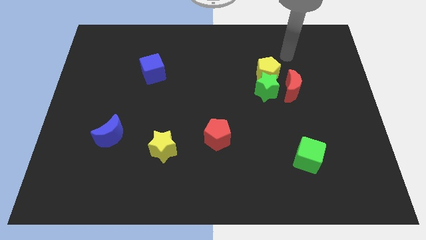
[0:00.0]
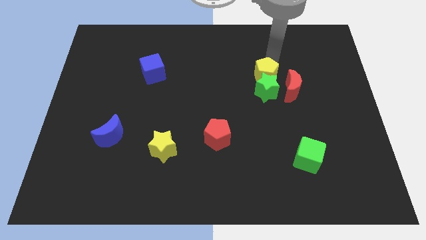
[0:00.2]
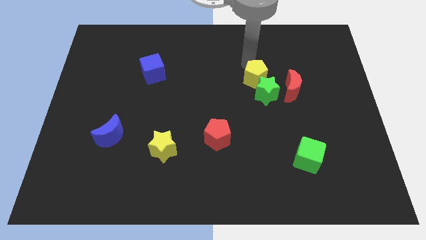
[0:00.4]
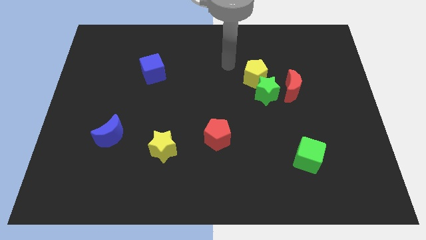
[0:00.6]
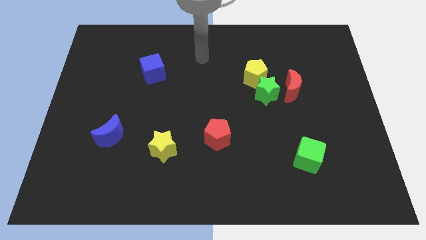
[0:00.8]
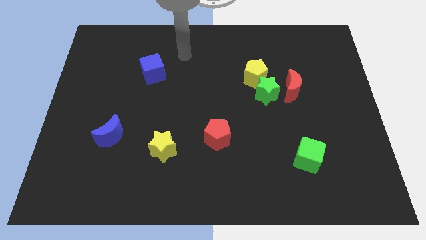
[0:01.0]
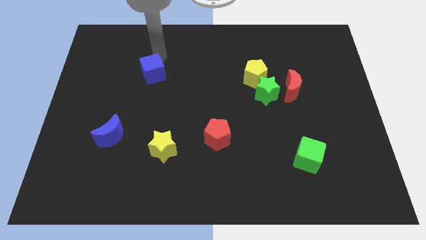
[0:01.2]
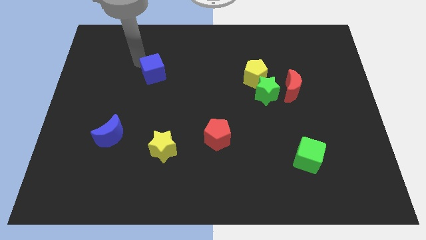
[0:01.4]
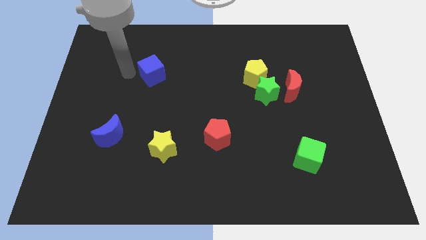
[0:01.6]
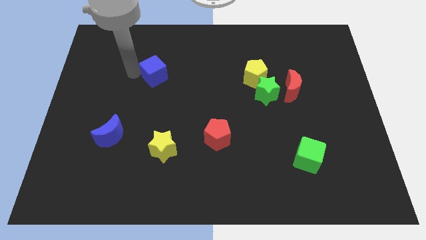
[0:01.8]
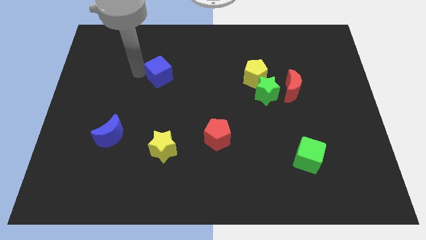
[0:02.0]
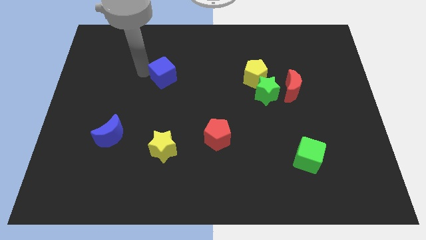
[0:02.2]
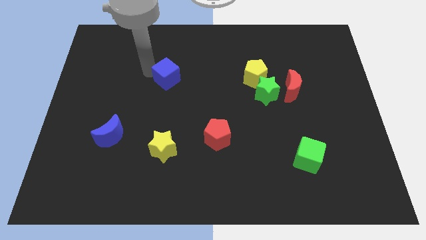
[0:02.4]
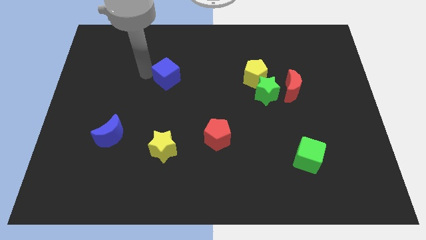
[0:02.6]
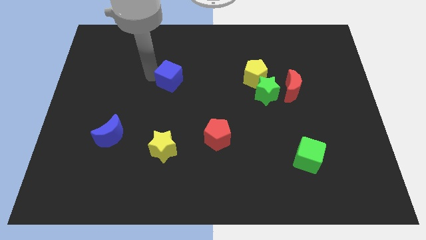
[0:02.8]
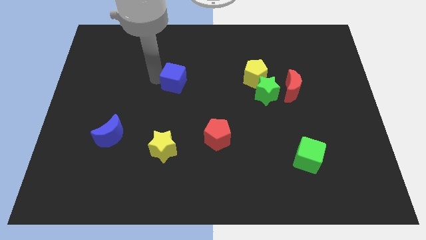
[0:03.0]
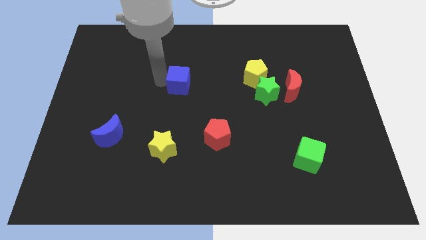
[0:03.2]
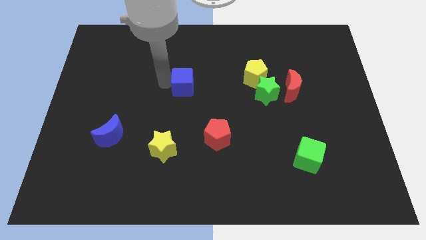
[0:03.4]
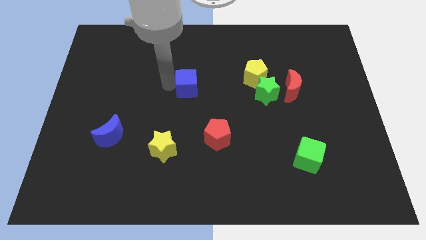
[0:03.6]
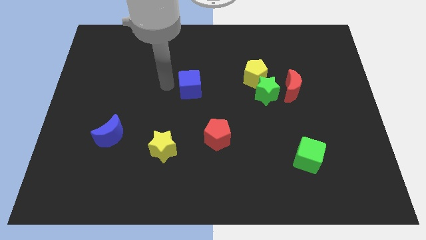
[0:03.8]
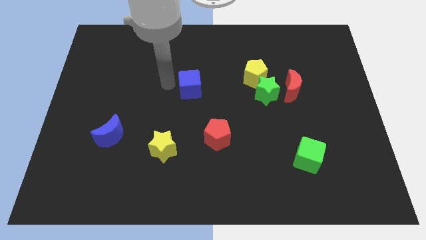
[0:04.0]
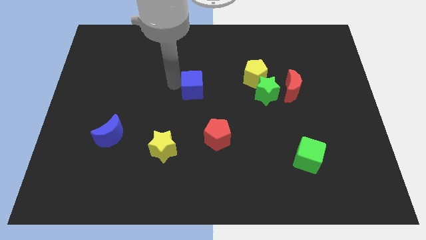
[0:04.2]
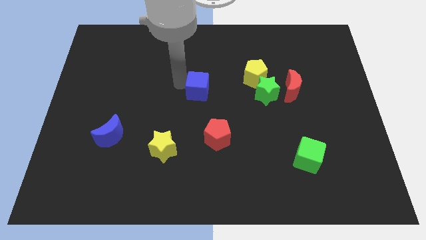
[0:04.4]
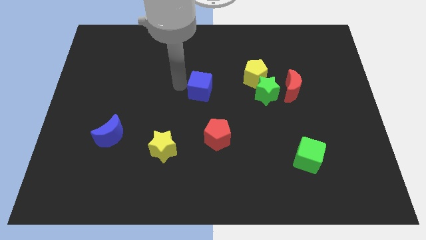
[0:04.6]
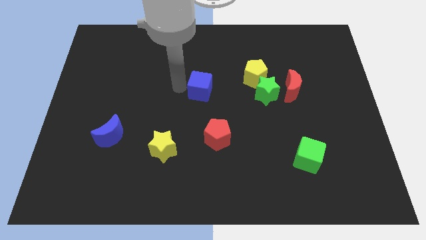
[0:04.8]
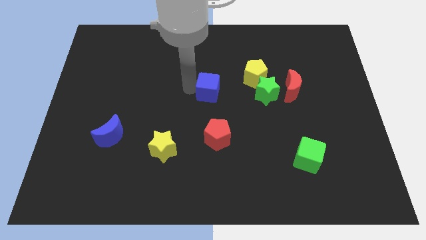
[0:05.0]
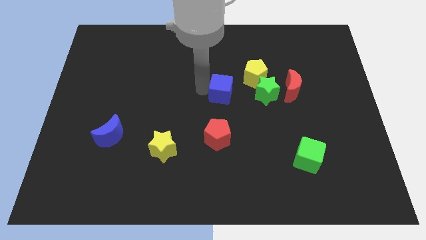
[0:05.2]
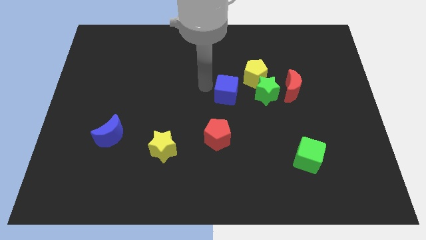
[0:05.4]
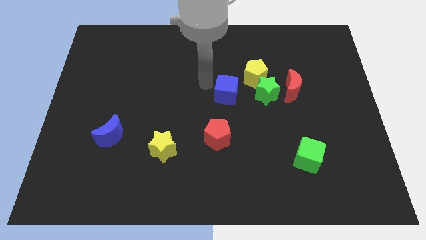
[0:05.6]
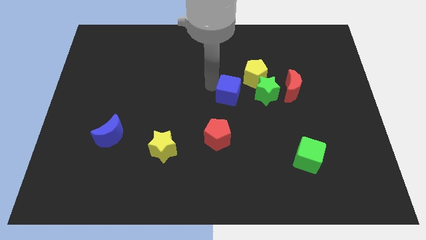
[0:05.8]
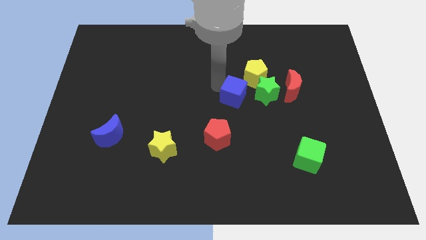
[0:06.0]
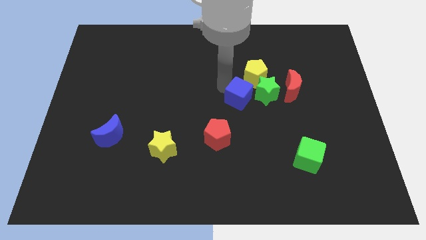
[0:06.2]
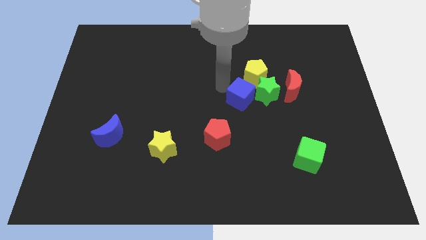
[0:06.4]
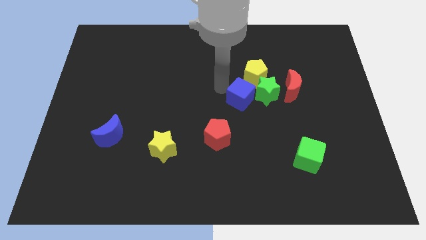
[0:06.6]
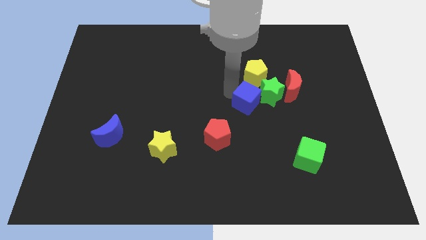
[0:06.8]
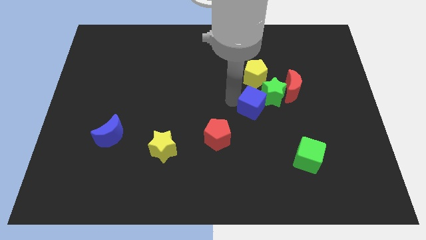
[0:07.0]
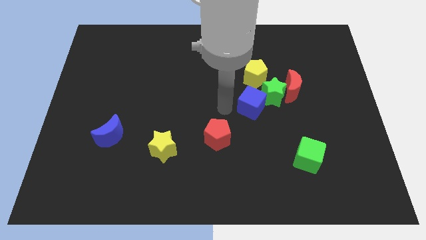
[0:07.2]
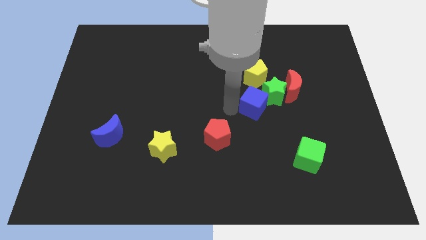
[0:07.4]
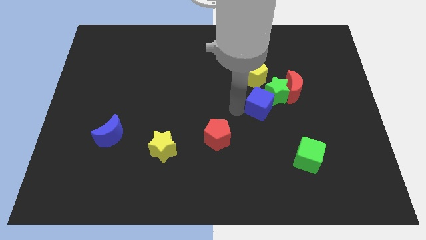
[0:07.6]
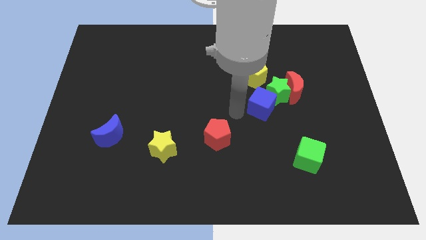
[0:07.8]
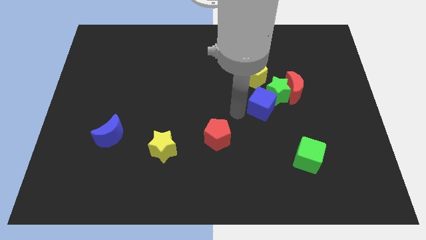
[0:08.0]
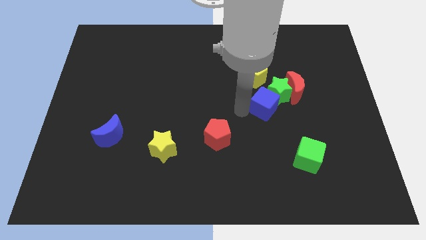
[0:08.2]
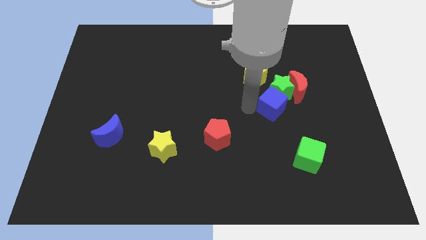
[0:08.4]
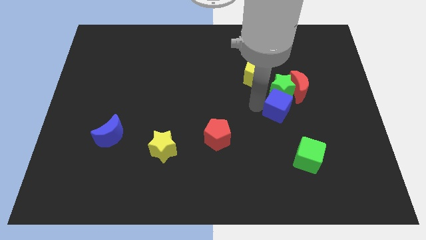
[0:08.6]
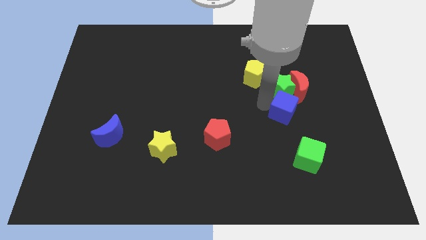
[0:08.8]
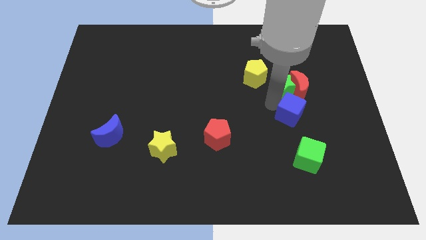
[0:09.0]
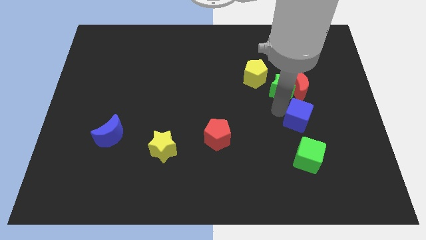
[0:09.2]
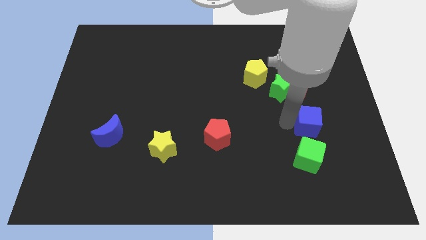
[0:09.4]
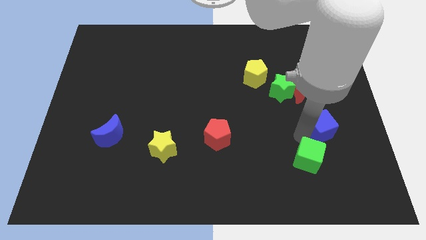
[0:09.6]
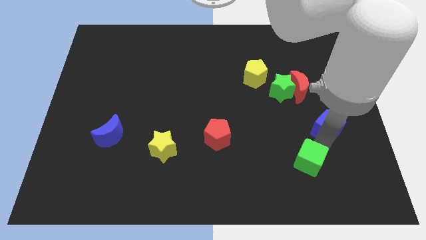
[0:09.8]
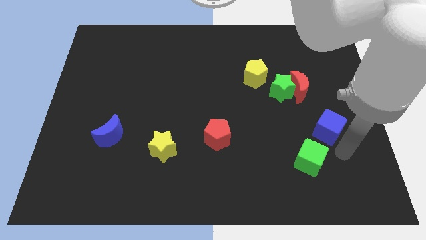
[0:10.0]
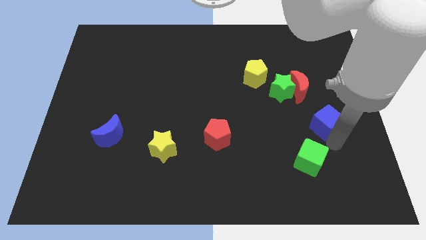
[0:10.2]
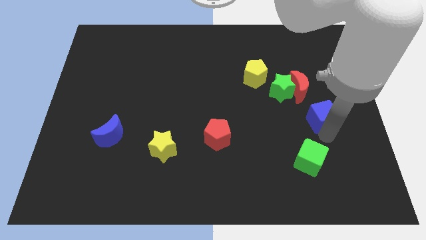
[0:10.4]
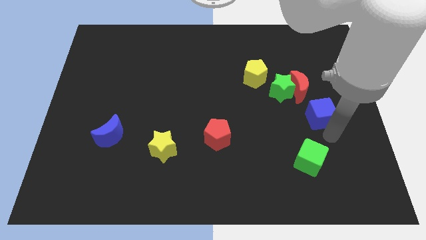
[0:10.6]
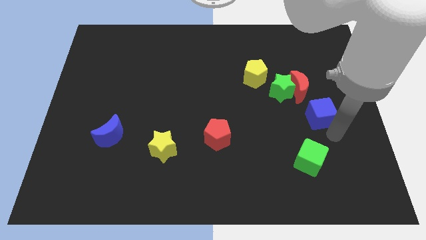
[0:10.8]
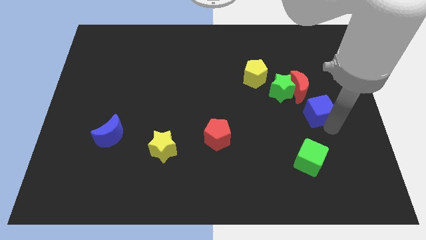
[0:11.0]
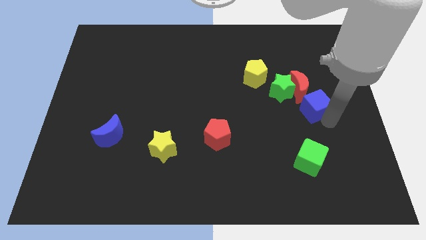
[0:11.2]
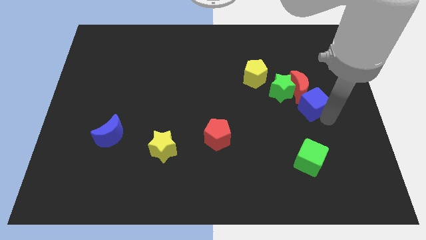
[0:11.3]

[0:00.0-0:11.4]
push the blue cube towards the red moon

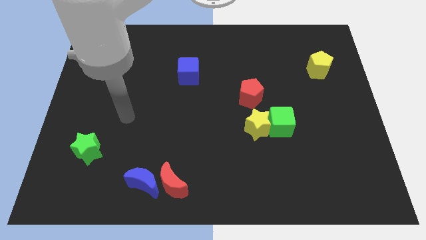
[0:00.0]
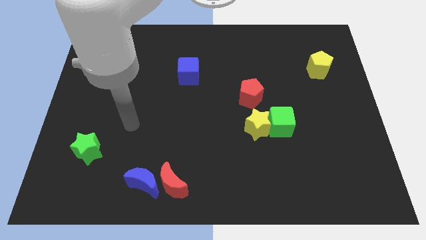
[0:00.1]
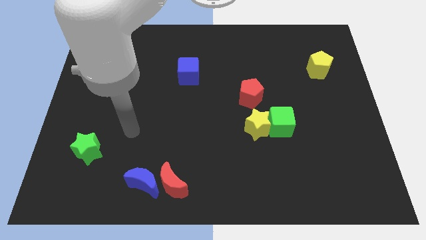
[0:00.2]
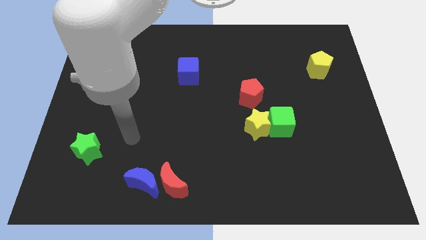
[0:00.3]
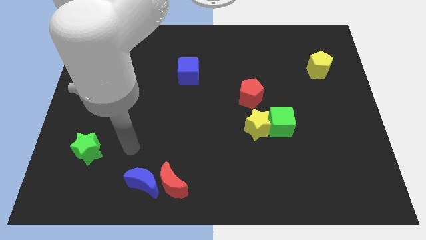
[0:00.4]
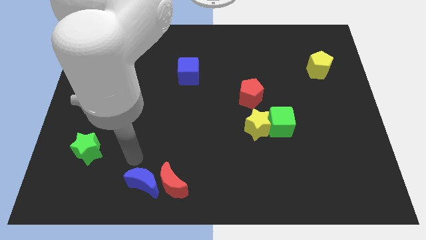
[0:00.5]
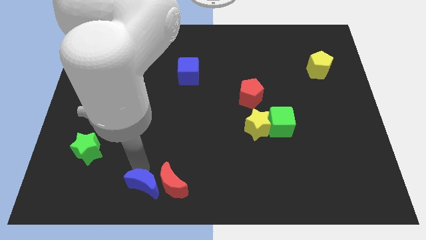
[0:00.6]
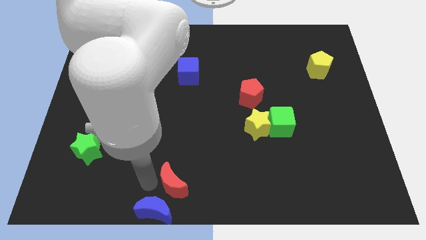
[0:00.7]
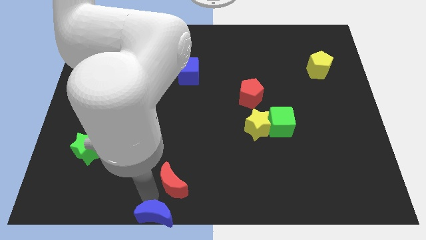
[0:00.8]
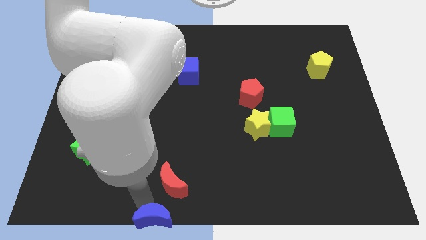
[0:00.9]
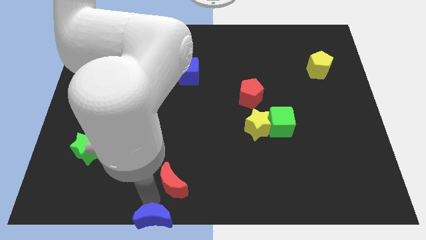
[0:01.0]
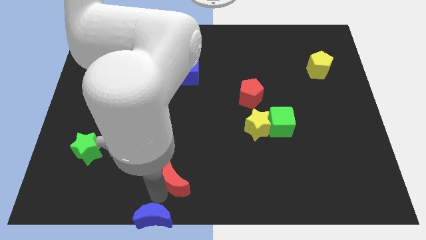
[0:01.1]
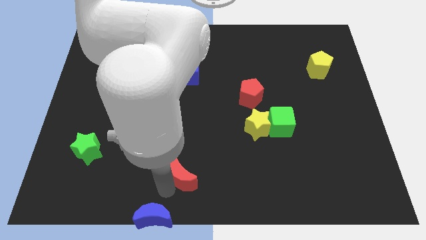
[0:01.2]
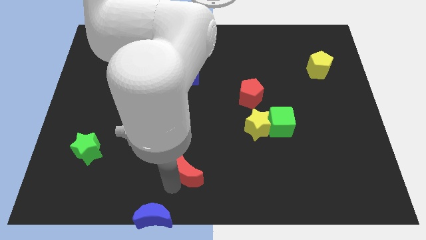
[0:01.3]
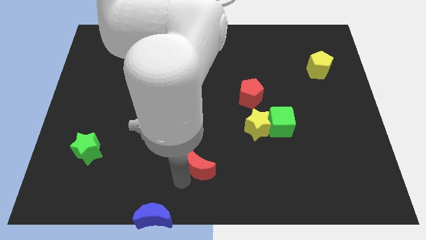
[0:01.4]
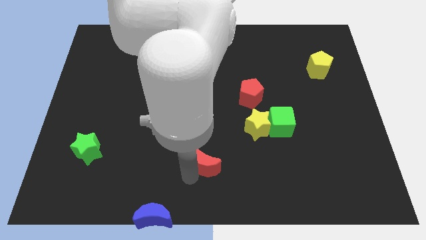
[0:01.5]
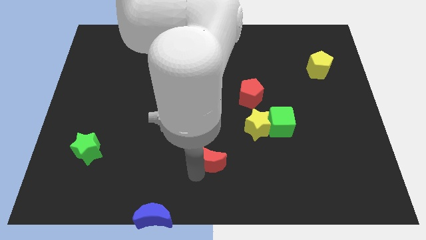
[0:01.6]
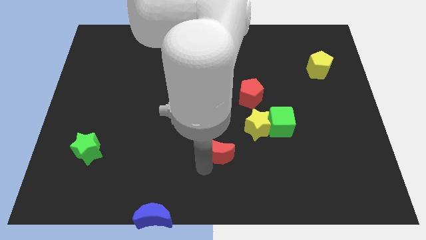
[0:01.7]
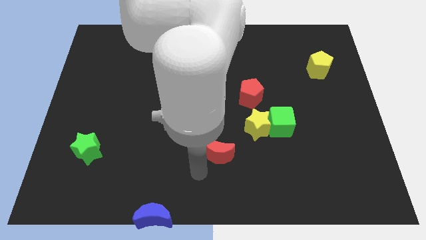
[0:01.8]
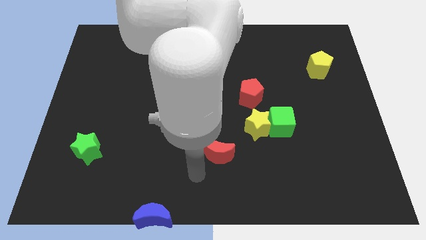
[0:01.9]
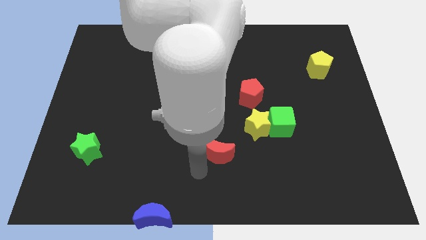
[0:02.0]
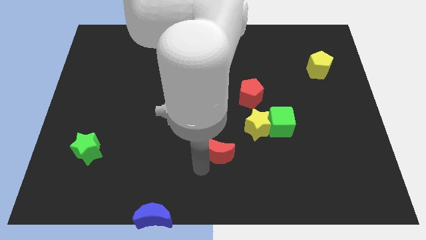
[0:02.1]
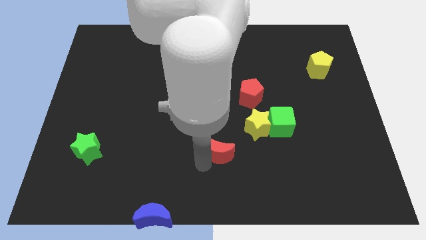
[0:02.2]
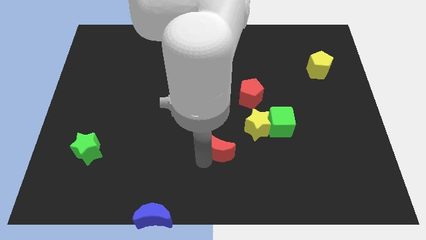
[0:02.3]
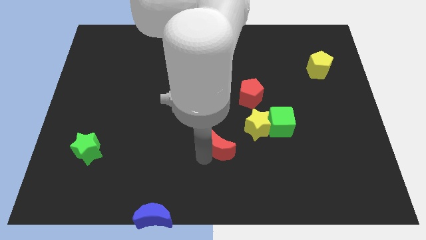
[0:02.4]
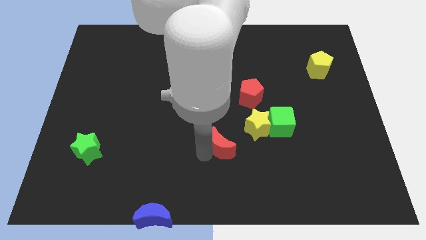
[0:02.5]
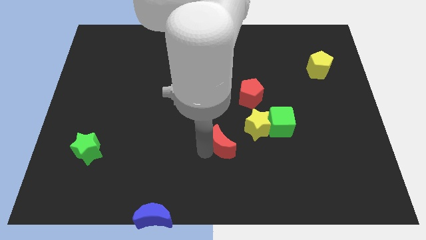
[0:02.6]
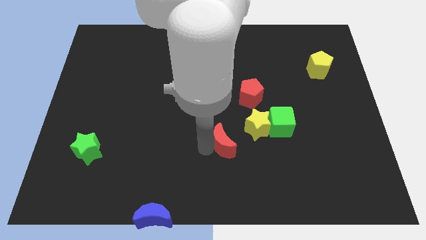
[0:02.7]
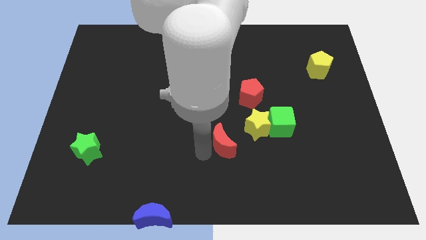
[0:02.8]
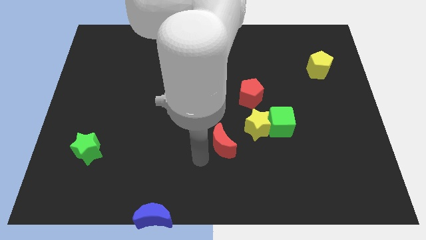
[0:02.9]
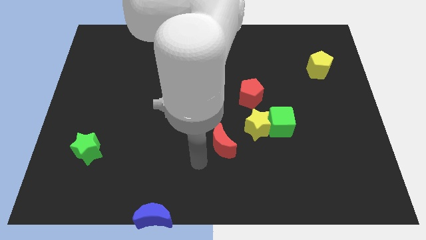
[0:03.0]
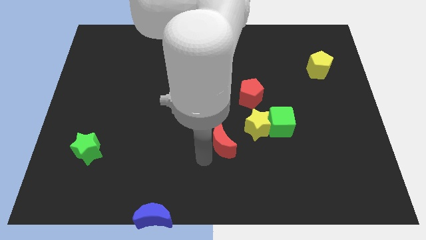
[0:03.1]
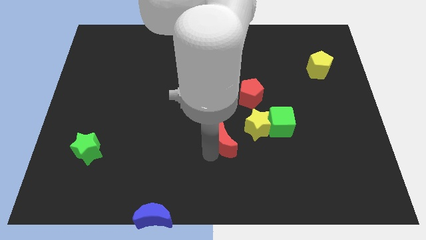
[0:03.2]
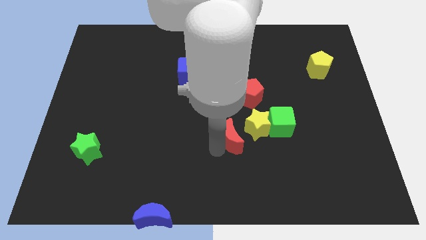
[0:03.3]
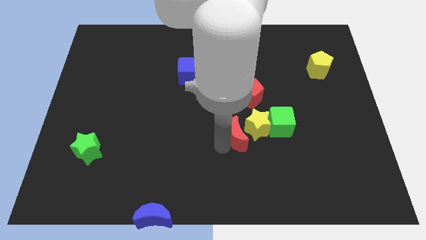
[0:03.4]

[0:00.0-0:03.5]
push the red moon next to the yellow star
